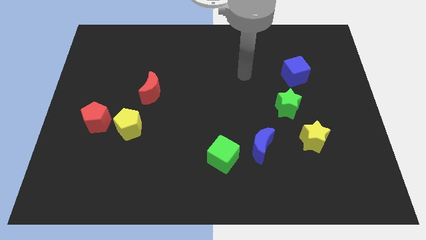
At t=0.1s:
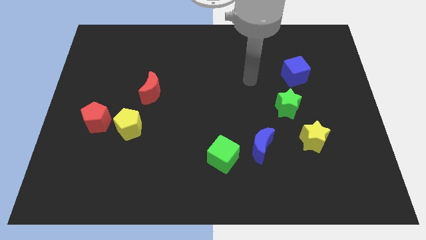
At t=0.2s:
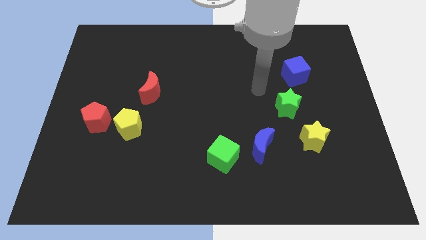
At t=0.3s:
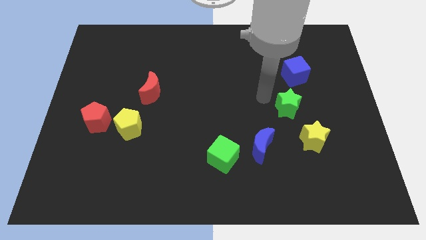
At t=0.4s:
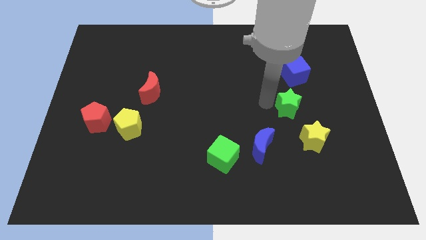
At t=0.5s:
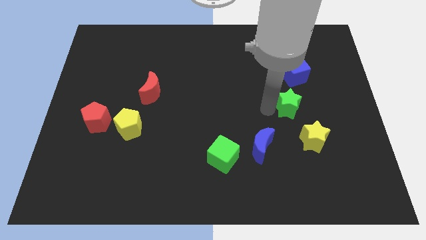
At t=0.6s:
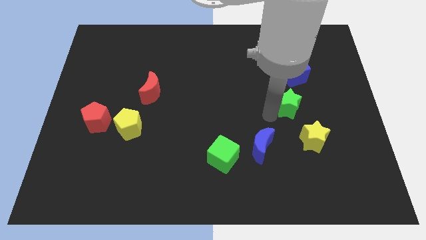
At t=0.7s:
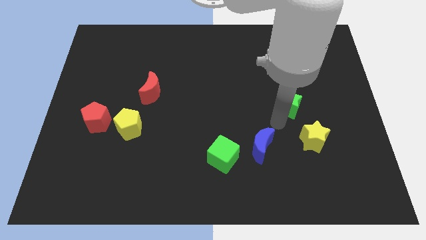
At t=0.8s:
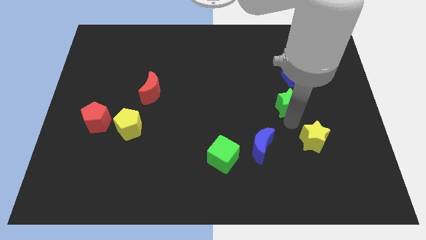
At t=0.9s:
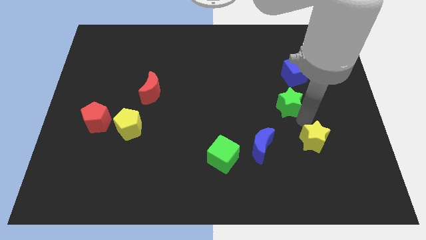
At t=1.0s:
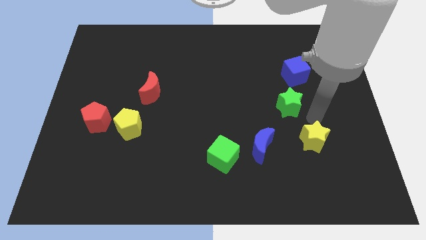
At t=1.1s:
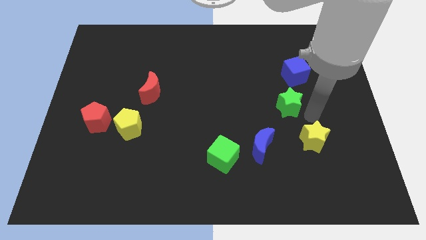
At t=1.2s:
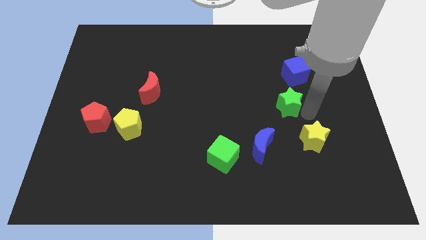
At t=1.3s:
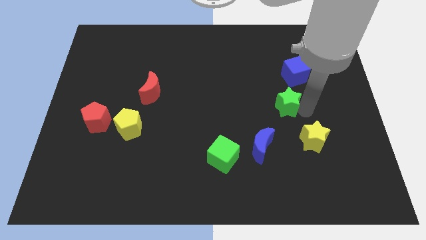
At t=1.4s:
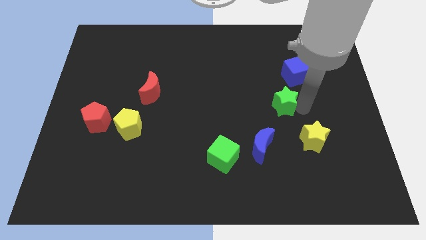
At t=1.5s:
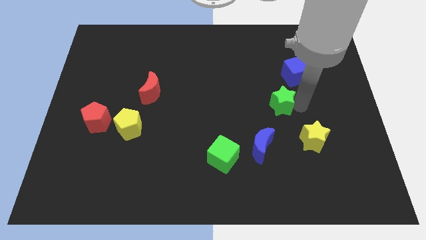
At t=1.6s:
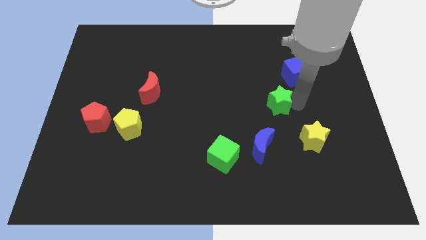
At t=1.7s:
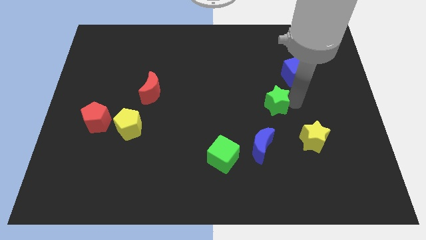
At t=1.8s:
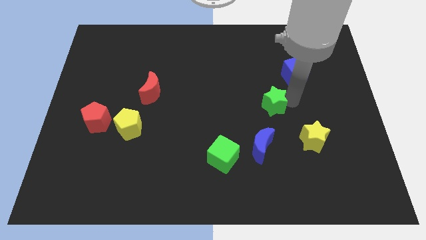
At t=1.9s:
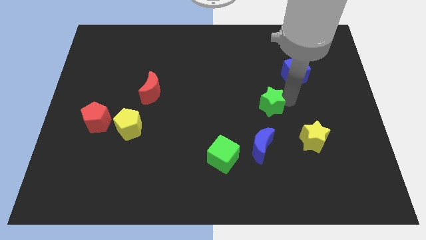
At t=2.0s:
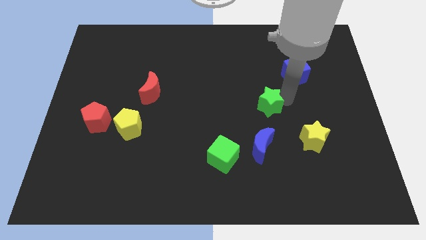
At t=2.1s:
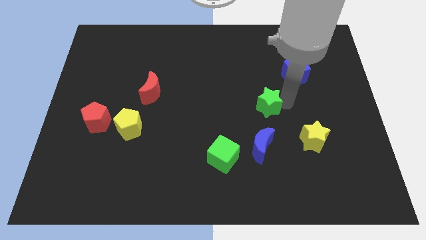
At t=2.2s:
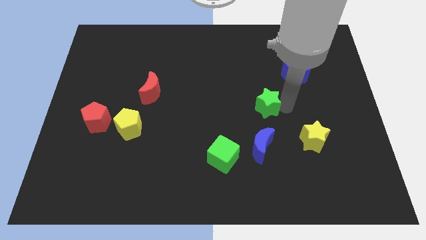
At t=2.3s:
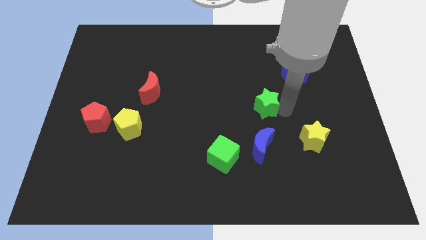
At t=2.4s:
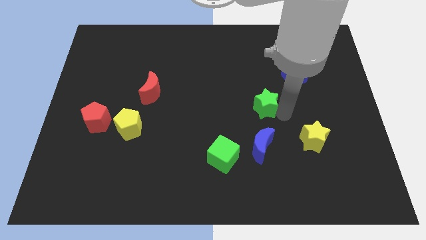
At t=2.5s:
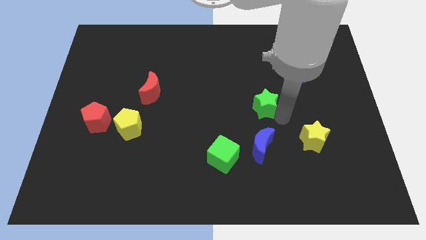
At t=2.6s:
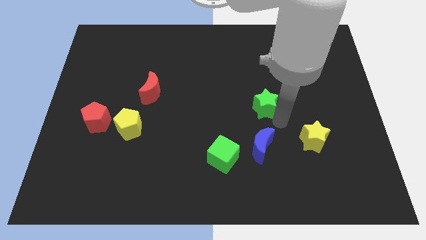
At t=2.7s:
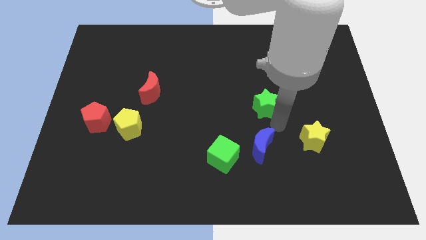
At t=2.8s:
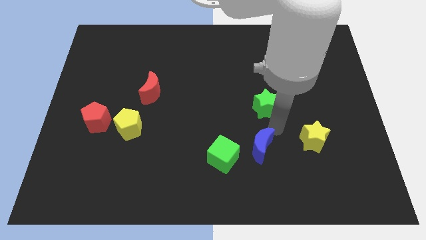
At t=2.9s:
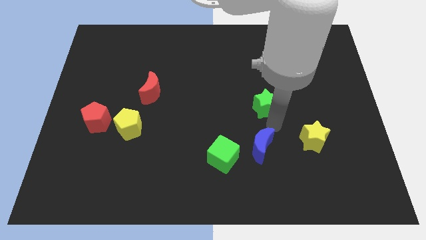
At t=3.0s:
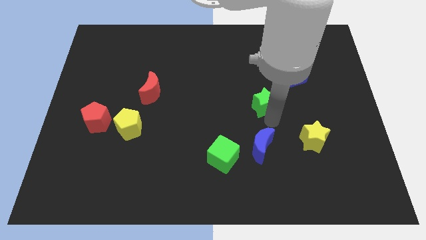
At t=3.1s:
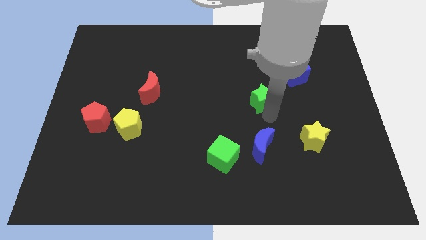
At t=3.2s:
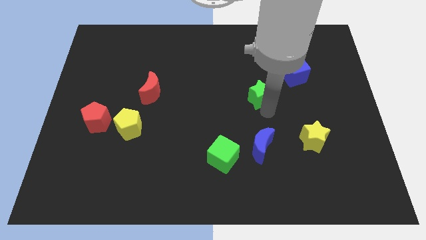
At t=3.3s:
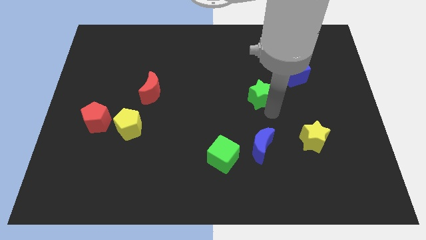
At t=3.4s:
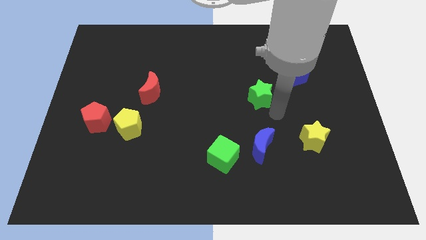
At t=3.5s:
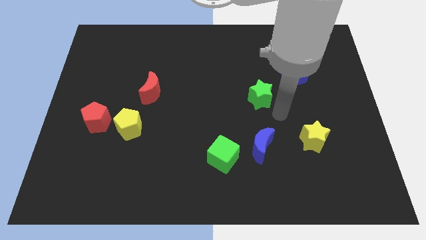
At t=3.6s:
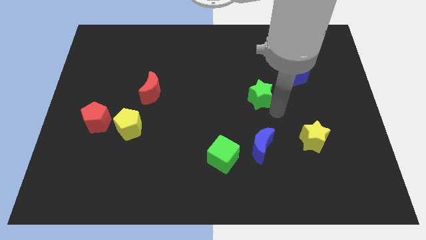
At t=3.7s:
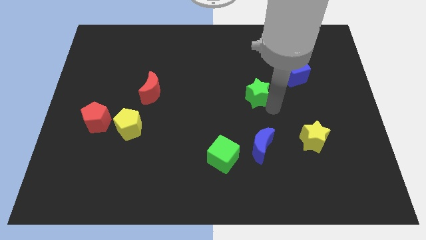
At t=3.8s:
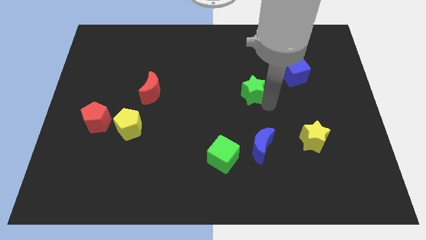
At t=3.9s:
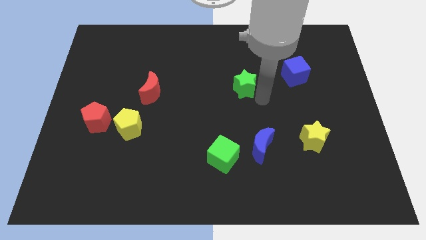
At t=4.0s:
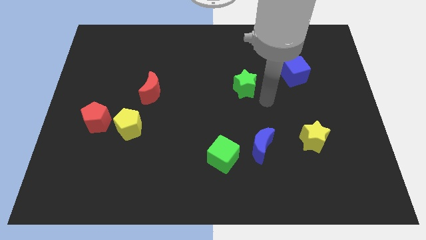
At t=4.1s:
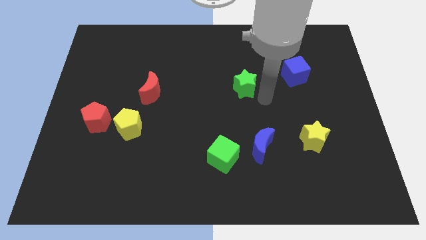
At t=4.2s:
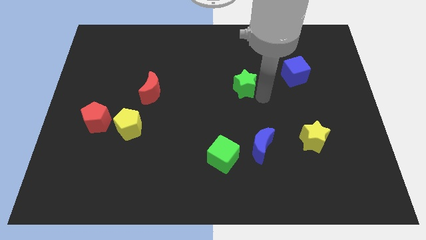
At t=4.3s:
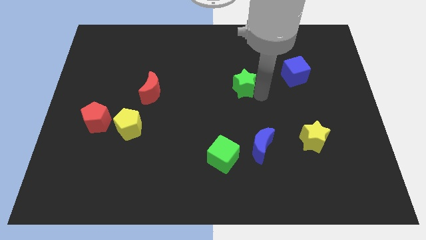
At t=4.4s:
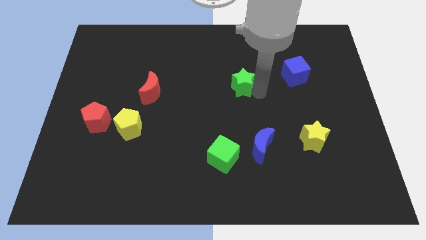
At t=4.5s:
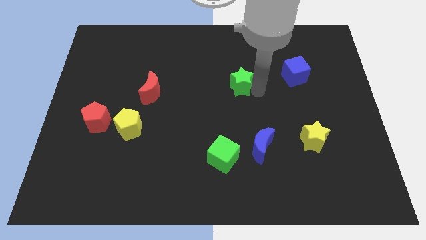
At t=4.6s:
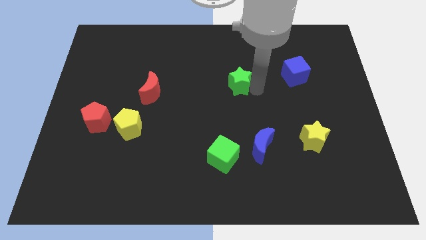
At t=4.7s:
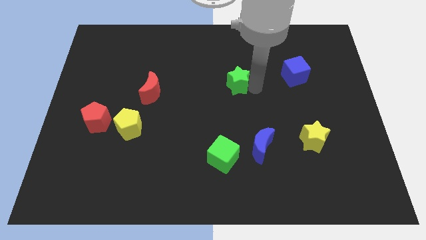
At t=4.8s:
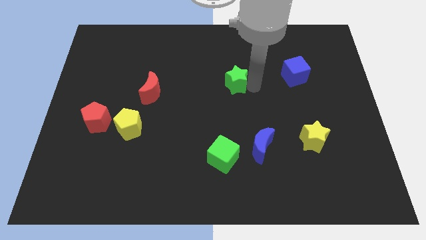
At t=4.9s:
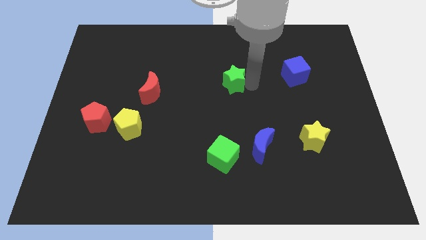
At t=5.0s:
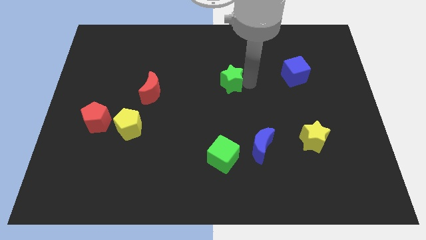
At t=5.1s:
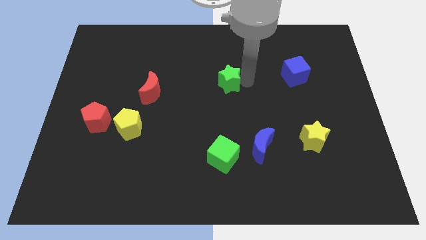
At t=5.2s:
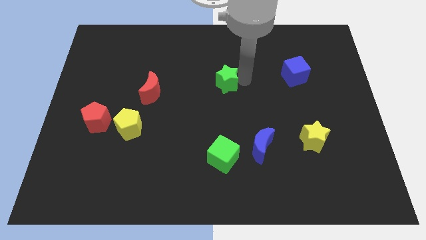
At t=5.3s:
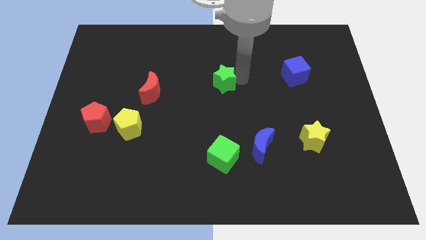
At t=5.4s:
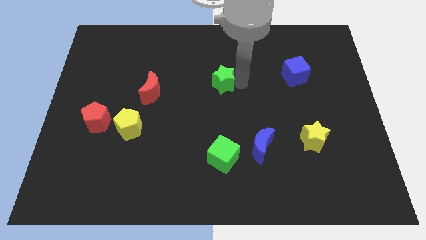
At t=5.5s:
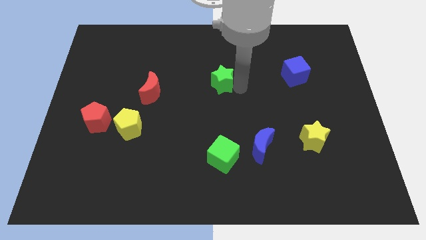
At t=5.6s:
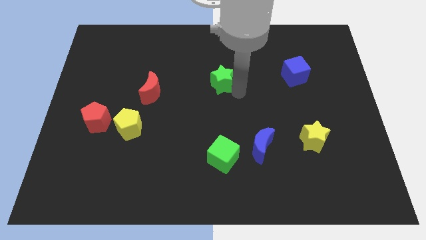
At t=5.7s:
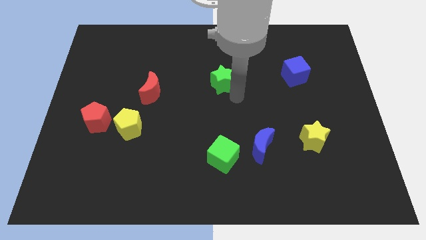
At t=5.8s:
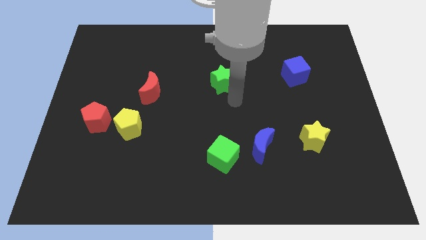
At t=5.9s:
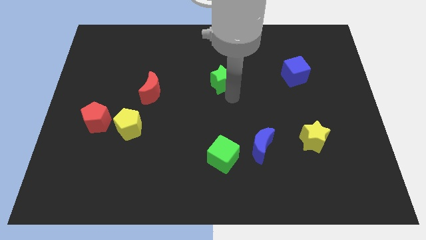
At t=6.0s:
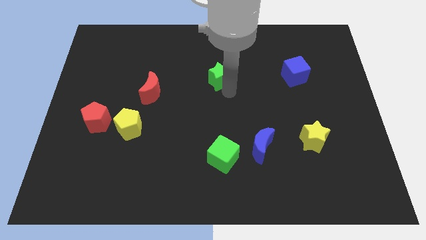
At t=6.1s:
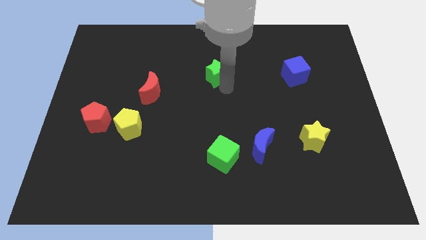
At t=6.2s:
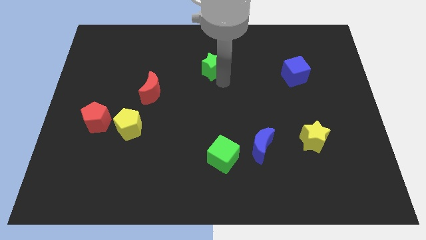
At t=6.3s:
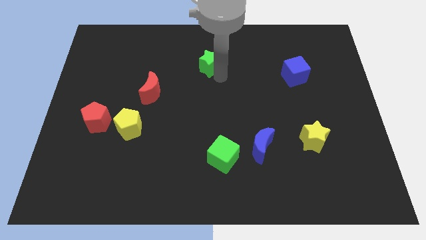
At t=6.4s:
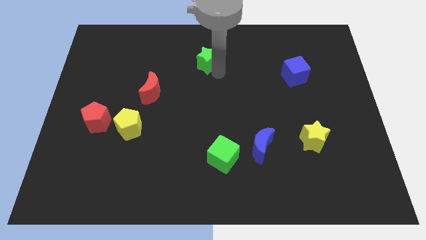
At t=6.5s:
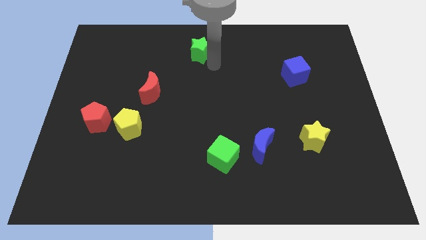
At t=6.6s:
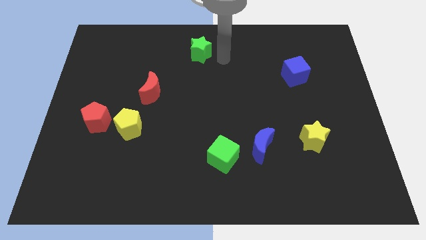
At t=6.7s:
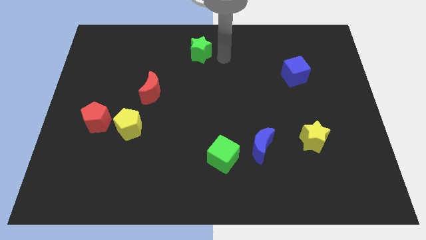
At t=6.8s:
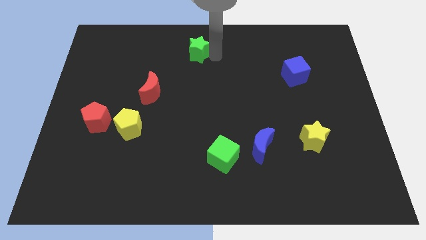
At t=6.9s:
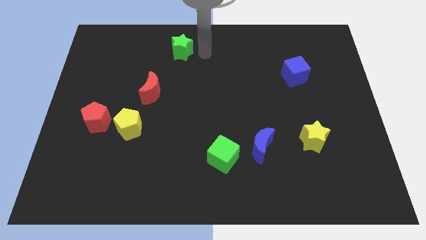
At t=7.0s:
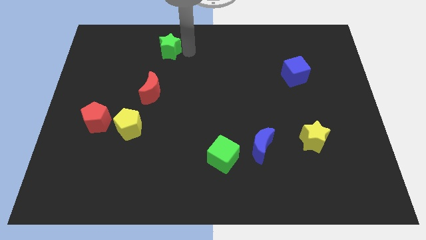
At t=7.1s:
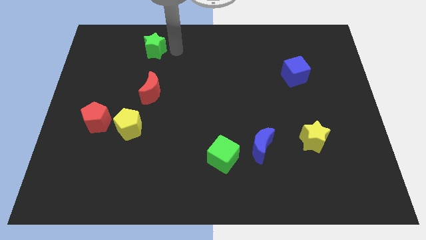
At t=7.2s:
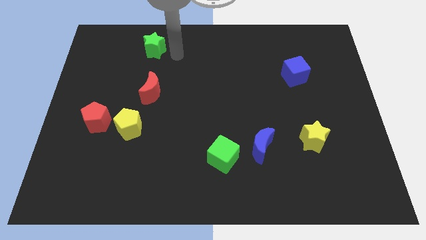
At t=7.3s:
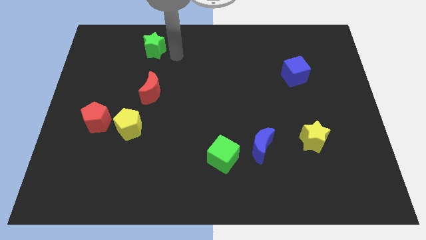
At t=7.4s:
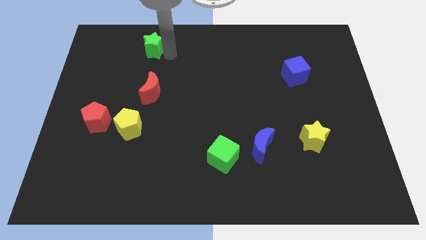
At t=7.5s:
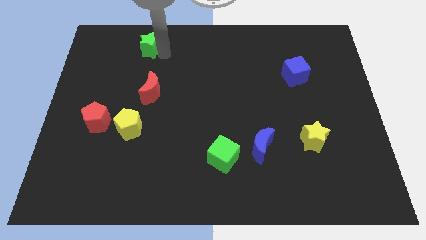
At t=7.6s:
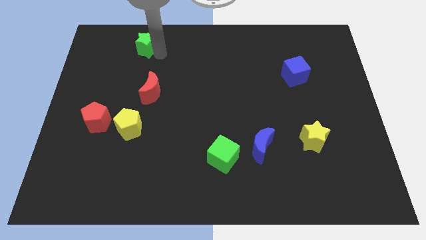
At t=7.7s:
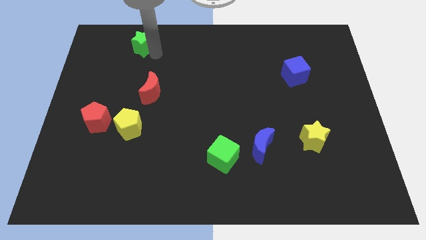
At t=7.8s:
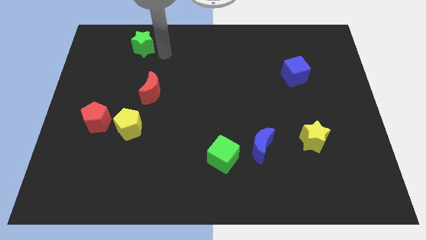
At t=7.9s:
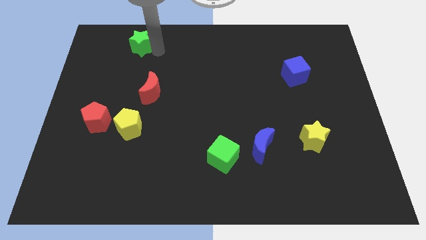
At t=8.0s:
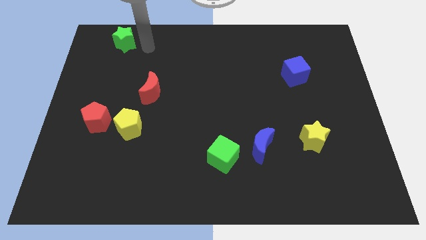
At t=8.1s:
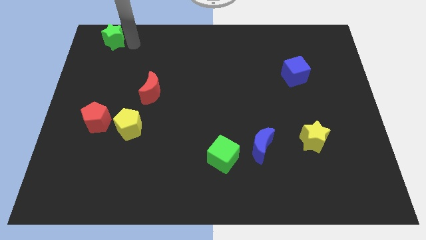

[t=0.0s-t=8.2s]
slide the green star to the top left
